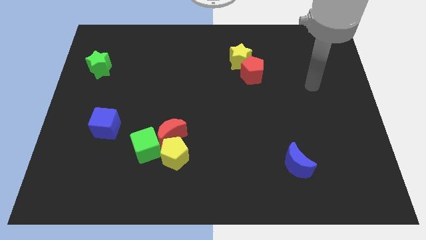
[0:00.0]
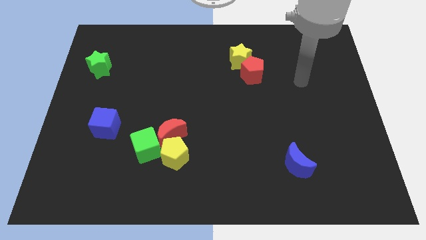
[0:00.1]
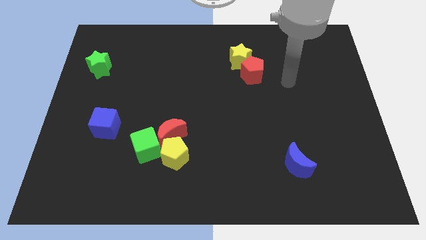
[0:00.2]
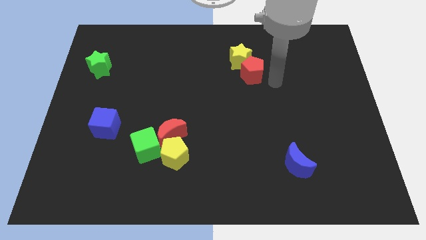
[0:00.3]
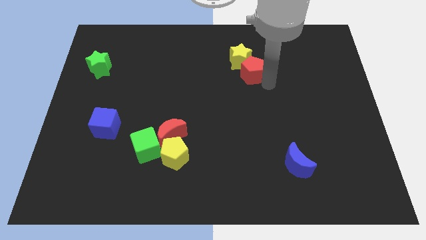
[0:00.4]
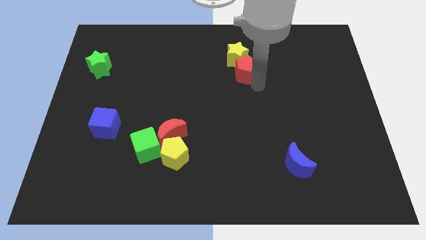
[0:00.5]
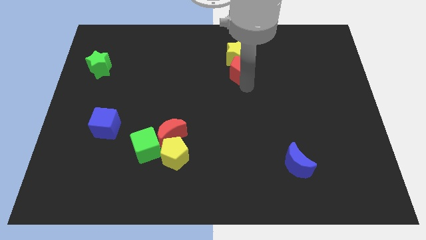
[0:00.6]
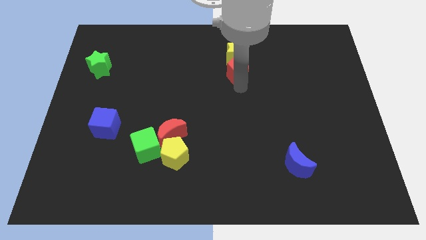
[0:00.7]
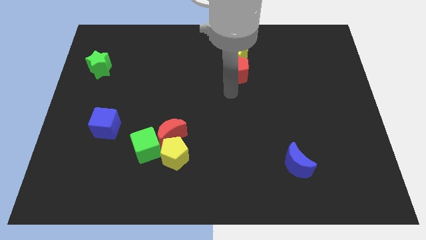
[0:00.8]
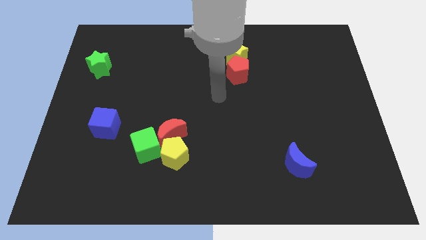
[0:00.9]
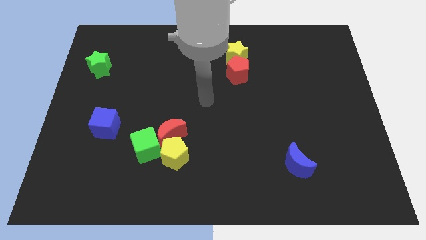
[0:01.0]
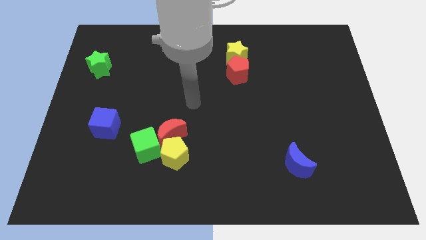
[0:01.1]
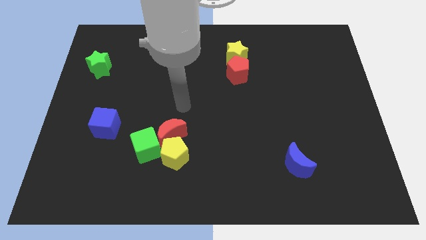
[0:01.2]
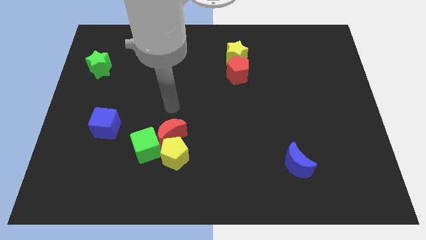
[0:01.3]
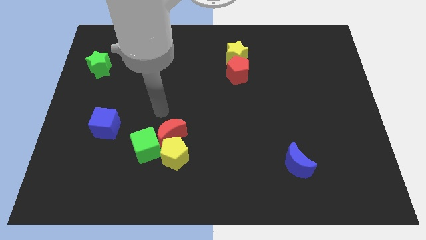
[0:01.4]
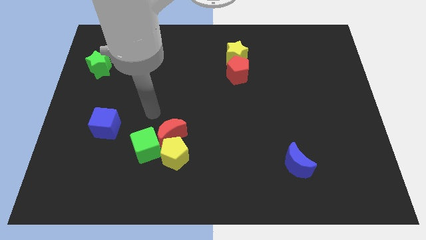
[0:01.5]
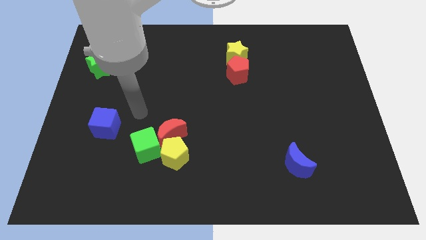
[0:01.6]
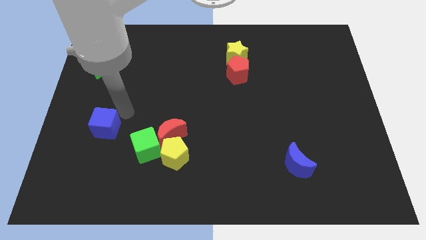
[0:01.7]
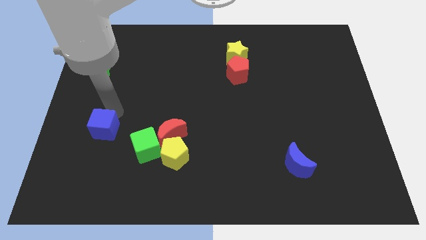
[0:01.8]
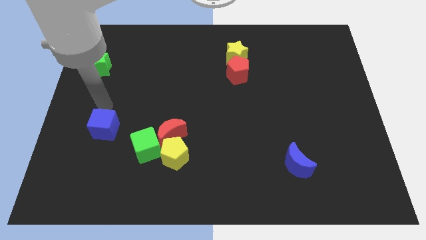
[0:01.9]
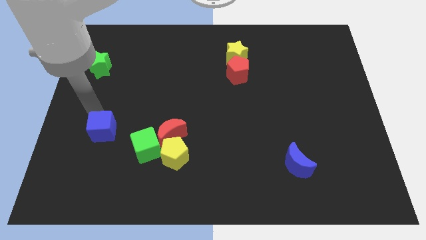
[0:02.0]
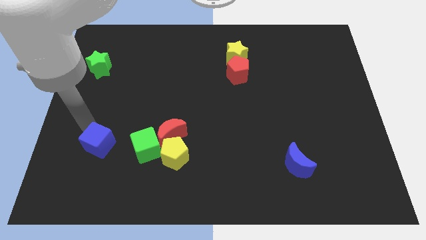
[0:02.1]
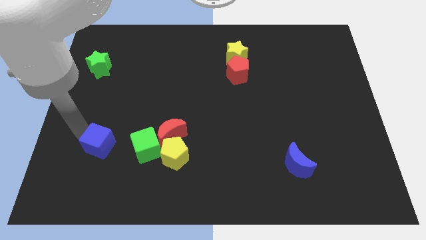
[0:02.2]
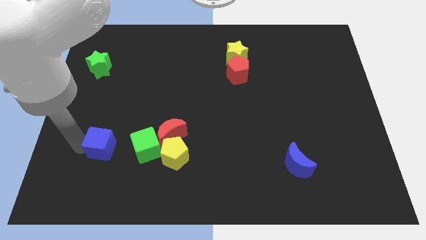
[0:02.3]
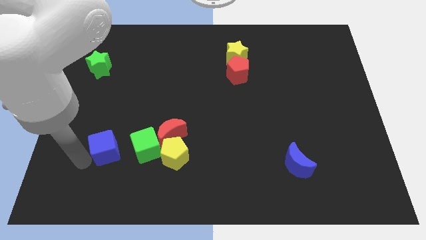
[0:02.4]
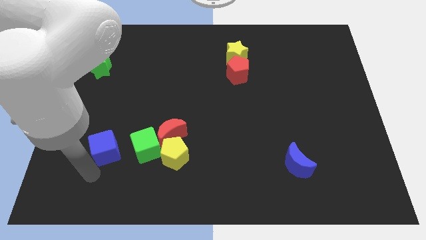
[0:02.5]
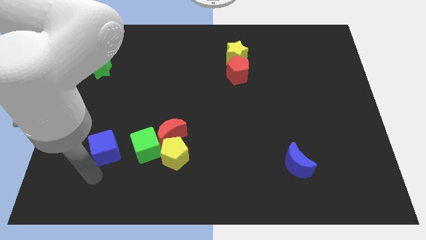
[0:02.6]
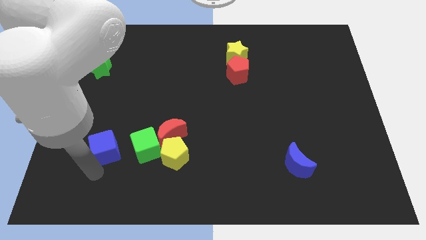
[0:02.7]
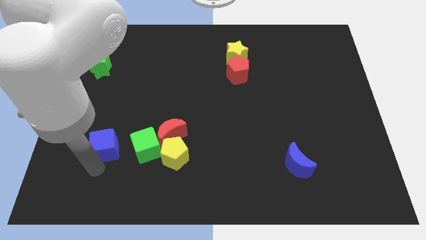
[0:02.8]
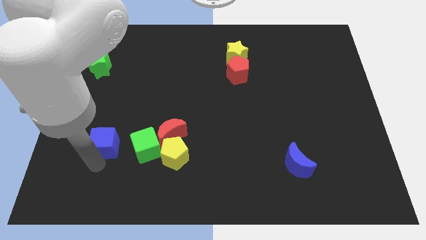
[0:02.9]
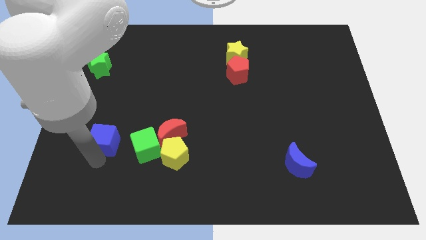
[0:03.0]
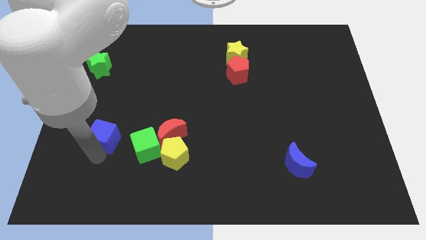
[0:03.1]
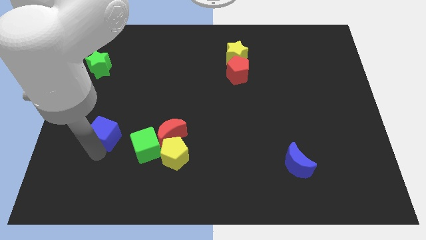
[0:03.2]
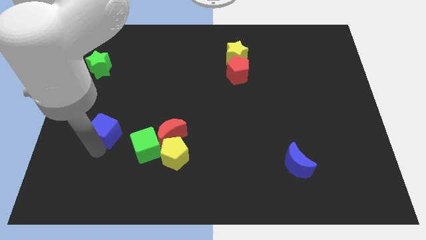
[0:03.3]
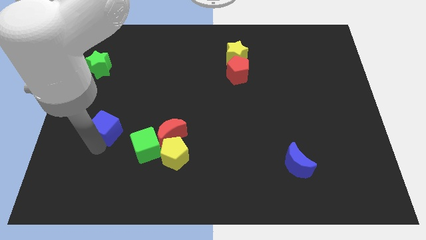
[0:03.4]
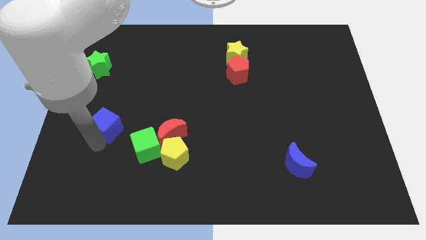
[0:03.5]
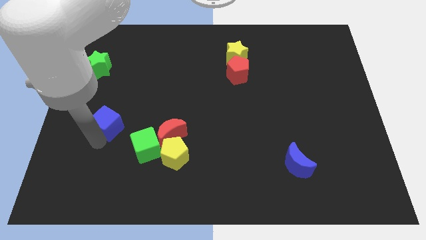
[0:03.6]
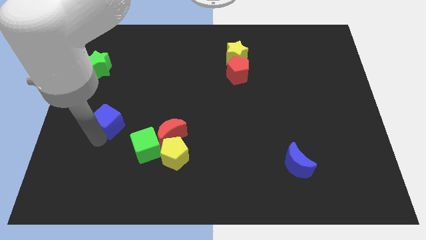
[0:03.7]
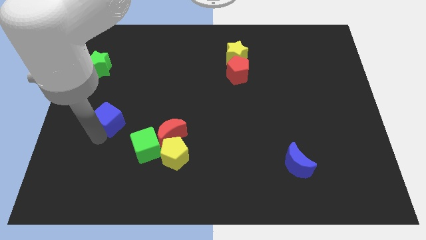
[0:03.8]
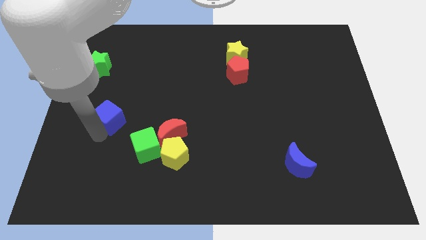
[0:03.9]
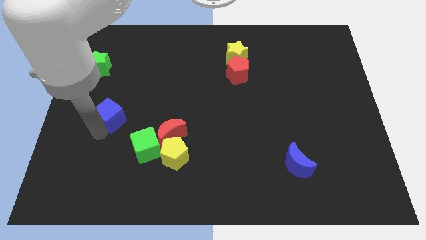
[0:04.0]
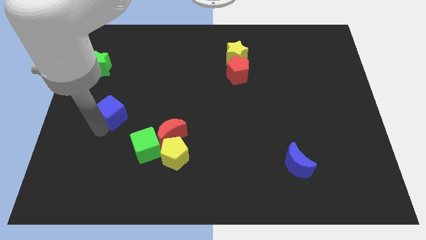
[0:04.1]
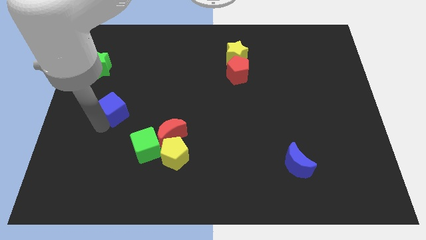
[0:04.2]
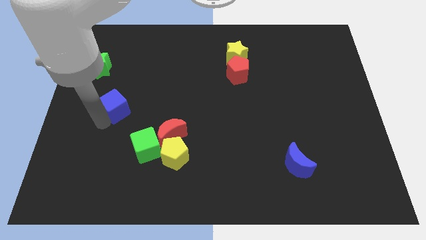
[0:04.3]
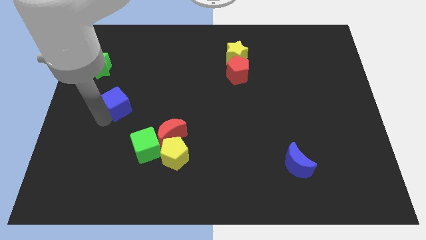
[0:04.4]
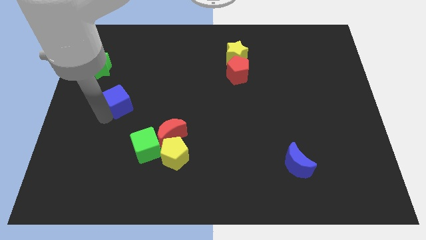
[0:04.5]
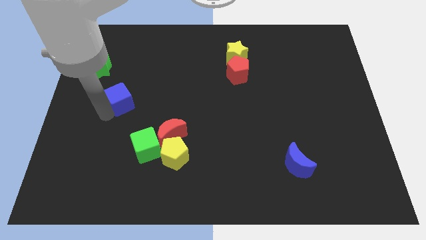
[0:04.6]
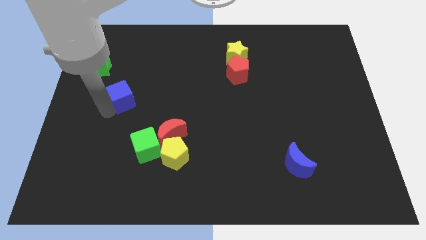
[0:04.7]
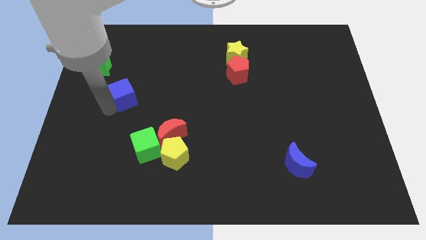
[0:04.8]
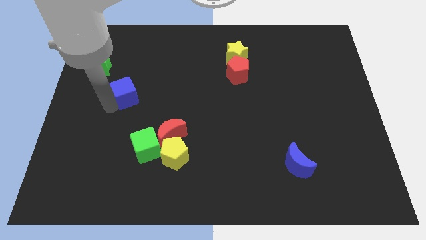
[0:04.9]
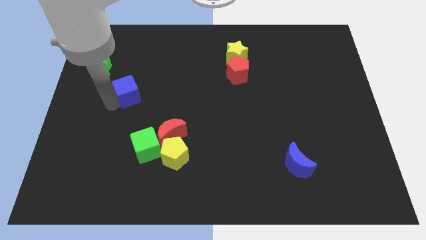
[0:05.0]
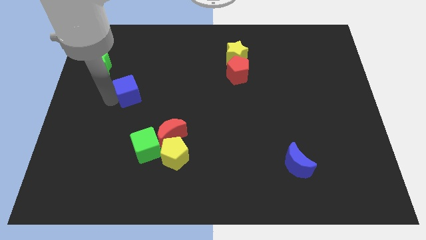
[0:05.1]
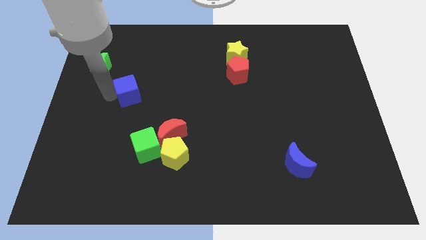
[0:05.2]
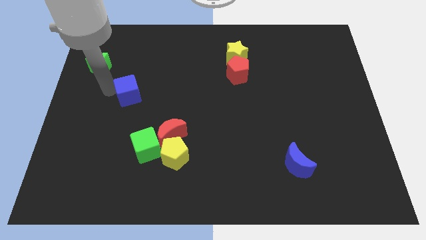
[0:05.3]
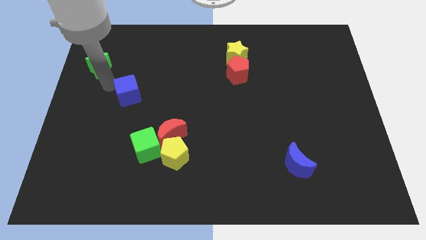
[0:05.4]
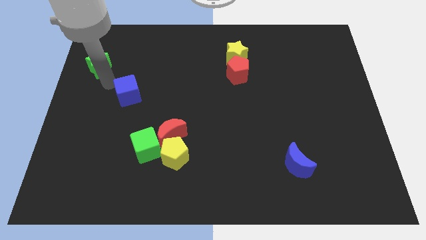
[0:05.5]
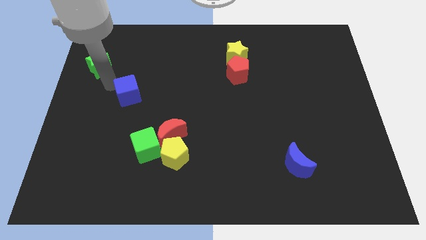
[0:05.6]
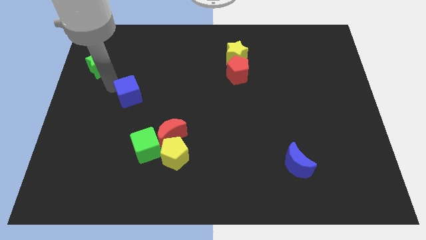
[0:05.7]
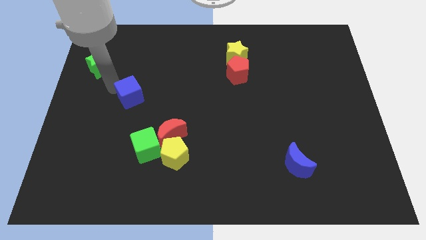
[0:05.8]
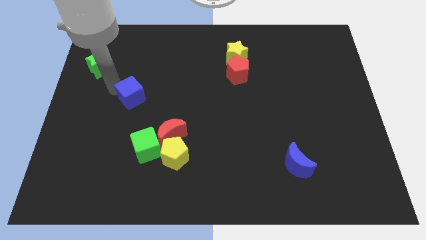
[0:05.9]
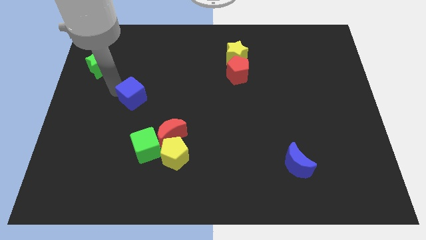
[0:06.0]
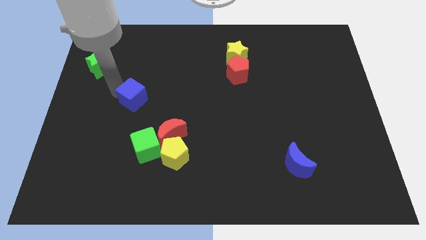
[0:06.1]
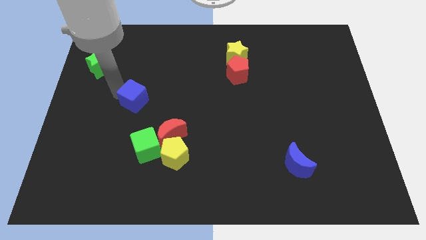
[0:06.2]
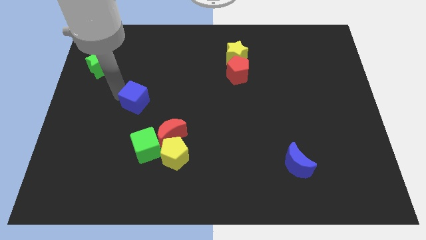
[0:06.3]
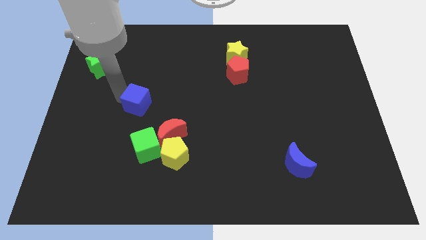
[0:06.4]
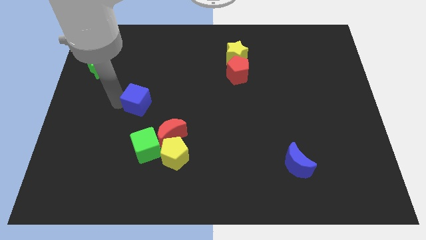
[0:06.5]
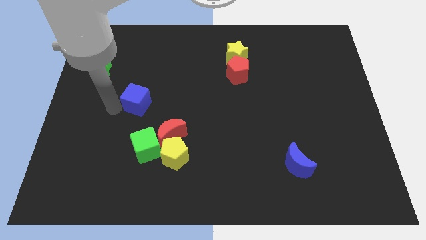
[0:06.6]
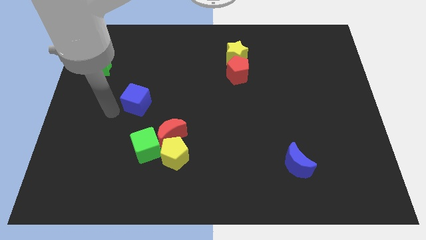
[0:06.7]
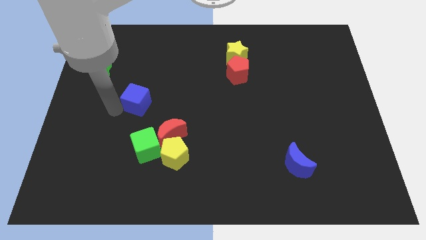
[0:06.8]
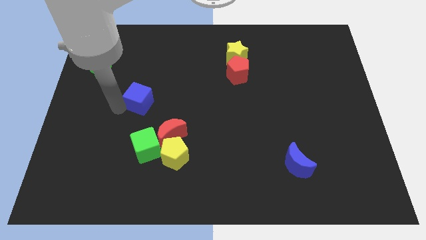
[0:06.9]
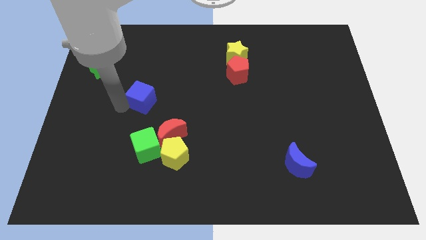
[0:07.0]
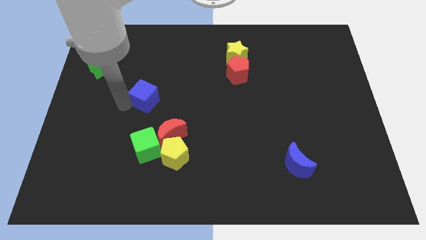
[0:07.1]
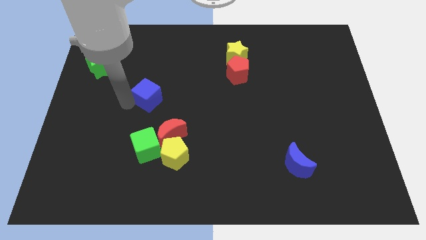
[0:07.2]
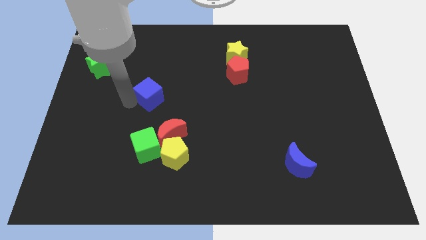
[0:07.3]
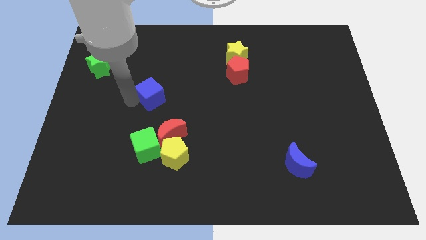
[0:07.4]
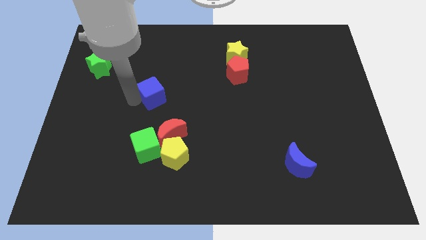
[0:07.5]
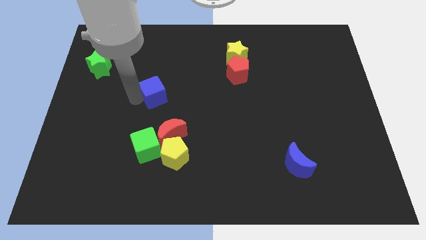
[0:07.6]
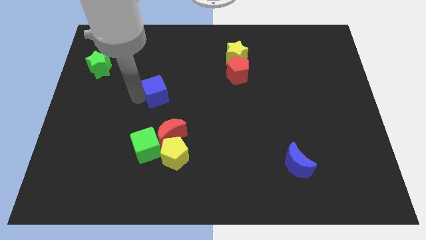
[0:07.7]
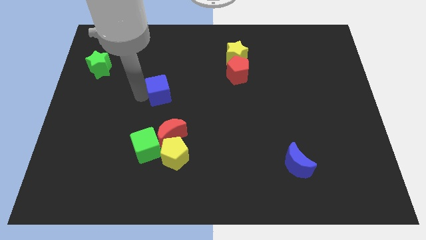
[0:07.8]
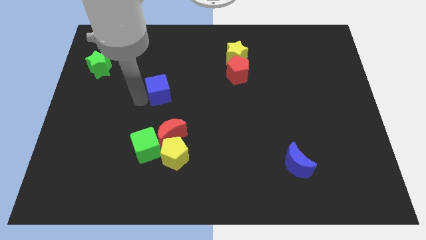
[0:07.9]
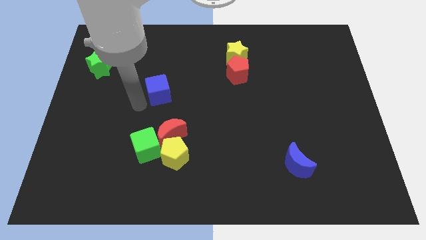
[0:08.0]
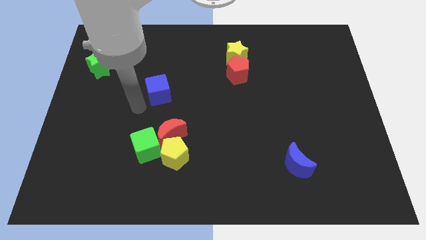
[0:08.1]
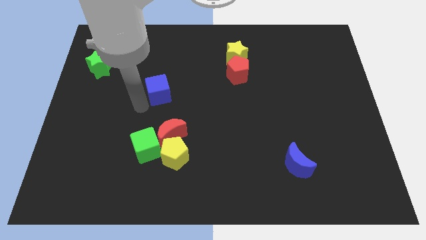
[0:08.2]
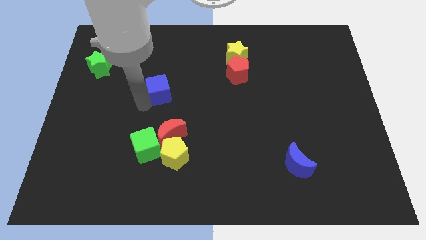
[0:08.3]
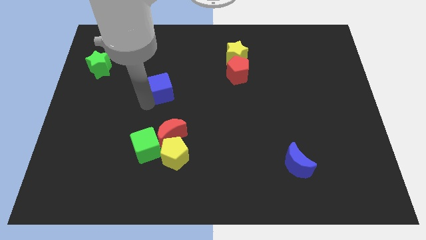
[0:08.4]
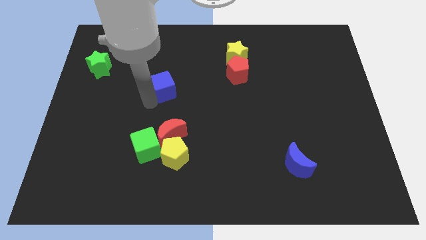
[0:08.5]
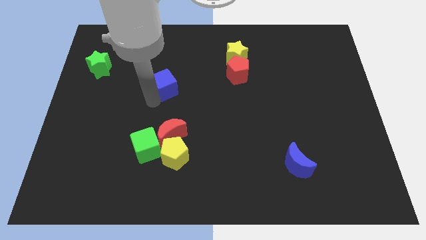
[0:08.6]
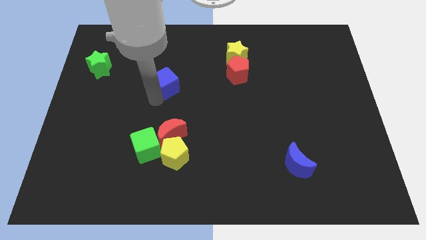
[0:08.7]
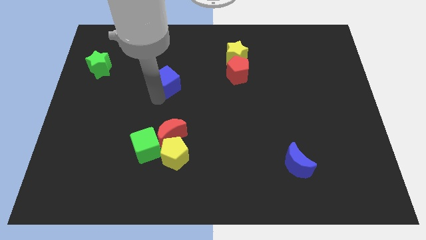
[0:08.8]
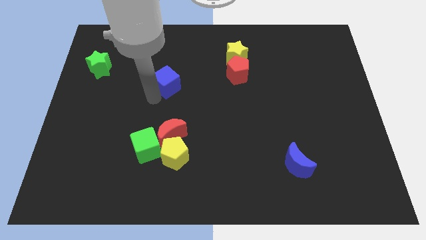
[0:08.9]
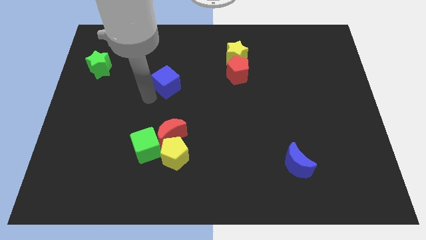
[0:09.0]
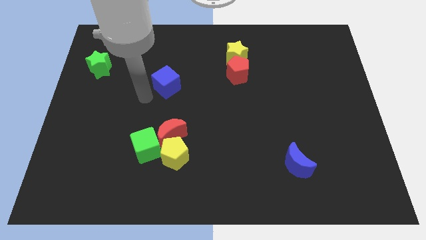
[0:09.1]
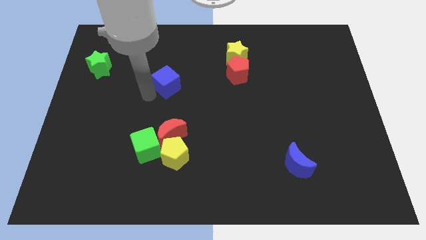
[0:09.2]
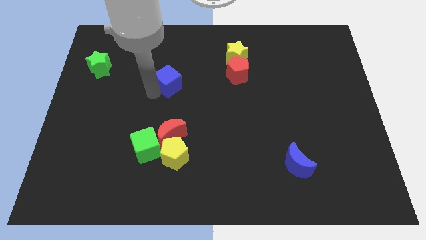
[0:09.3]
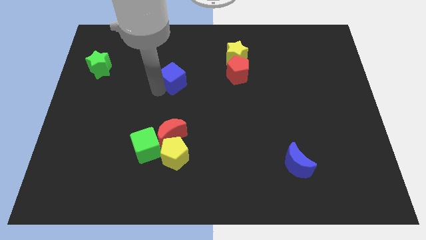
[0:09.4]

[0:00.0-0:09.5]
move the blue cube up and then right
